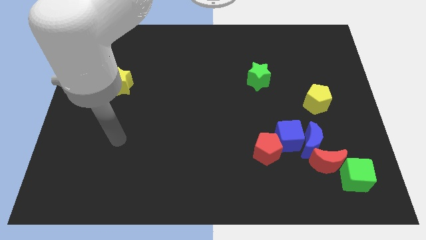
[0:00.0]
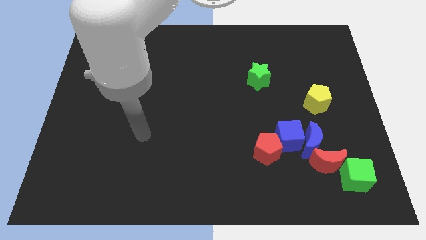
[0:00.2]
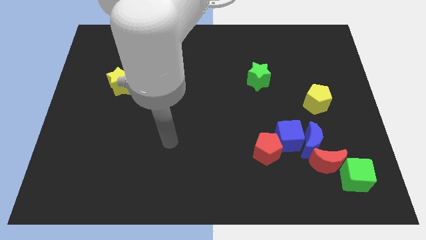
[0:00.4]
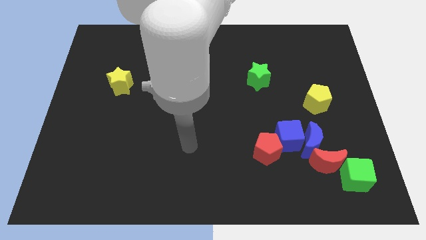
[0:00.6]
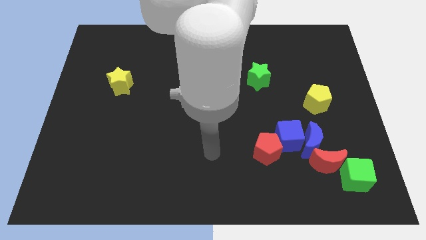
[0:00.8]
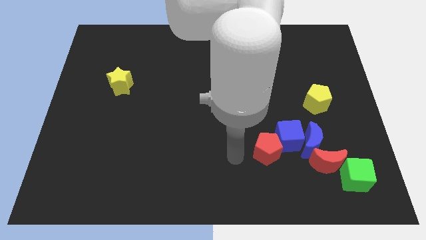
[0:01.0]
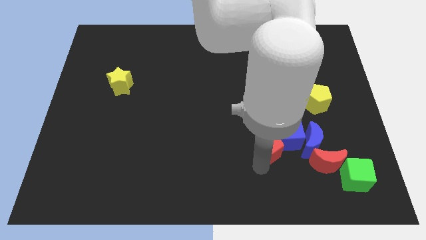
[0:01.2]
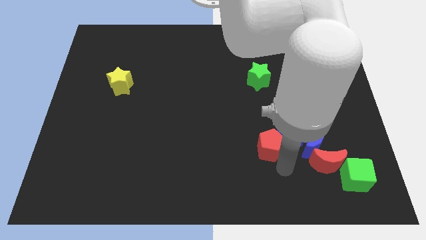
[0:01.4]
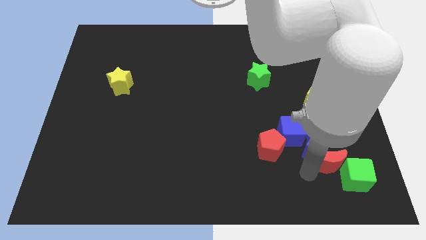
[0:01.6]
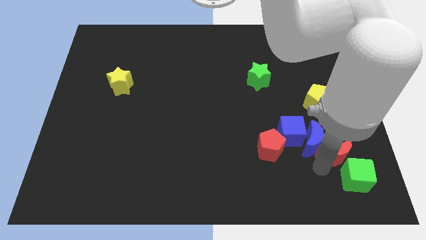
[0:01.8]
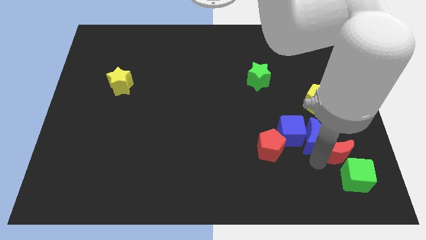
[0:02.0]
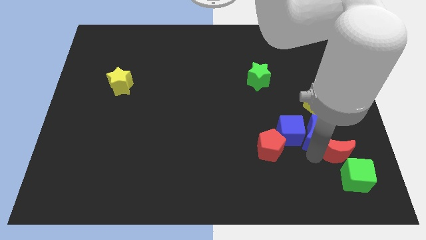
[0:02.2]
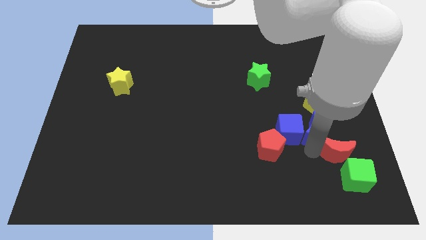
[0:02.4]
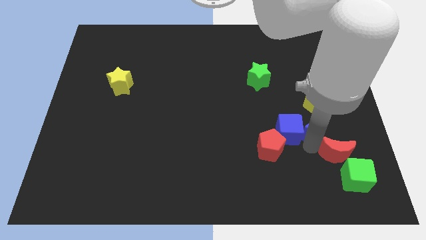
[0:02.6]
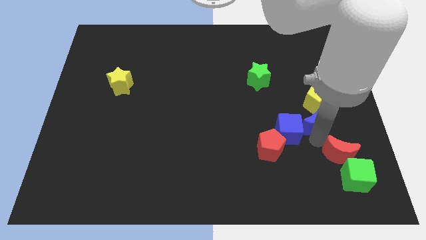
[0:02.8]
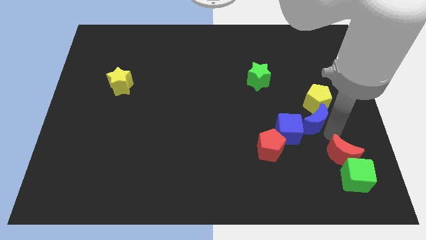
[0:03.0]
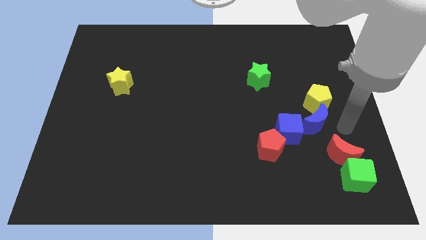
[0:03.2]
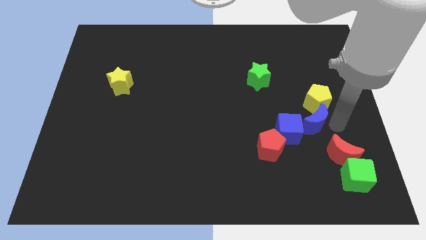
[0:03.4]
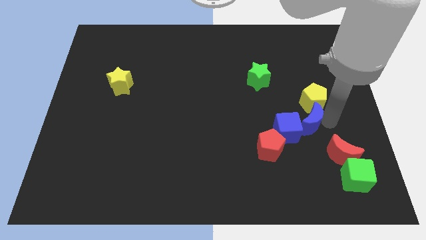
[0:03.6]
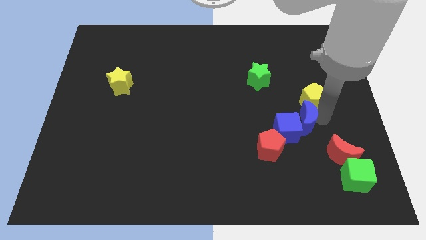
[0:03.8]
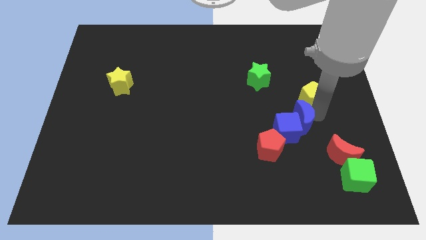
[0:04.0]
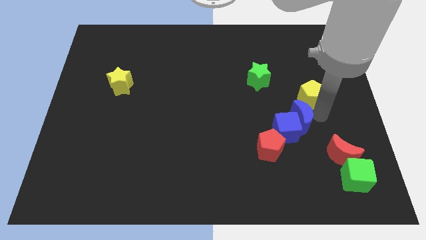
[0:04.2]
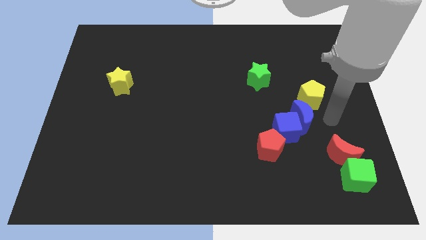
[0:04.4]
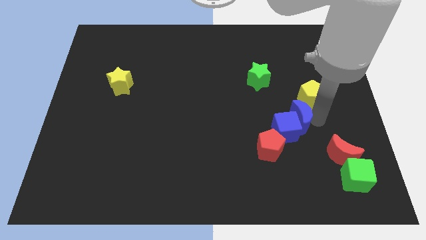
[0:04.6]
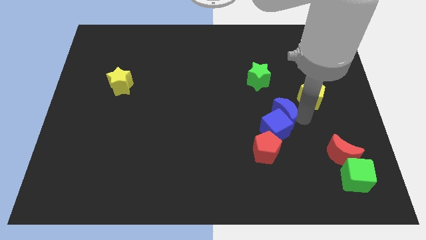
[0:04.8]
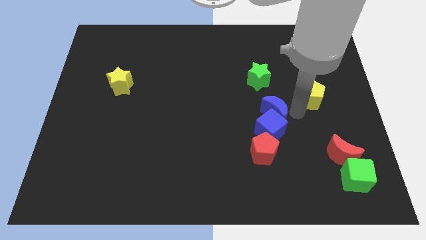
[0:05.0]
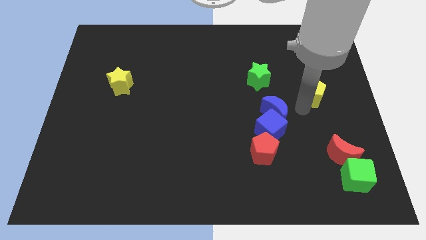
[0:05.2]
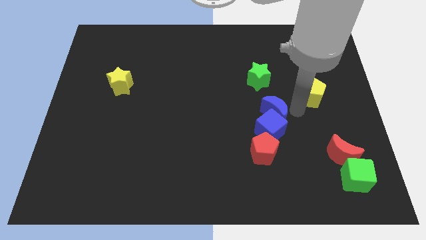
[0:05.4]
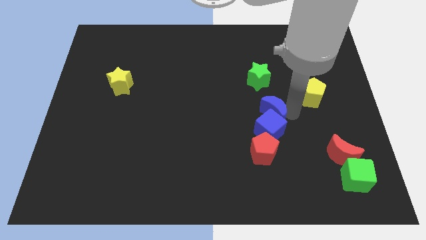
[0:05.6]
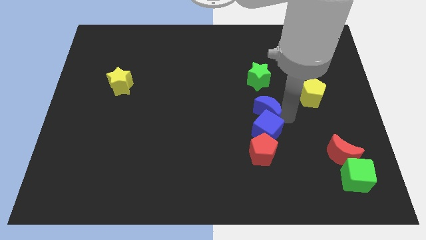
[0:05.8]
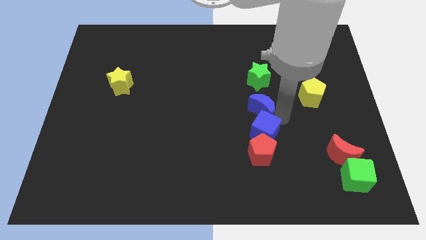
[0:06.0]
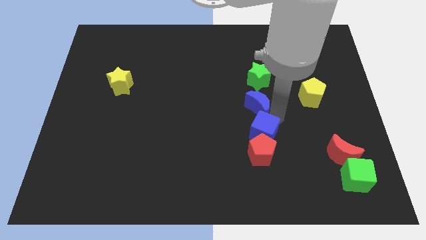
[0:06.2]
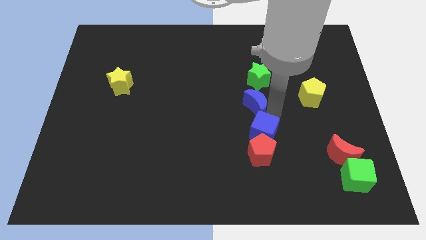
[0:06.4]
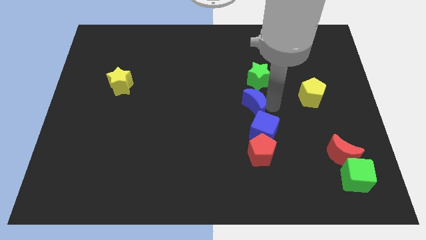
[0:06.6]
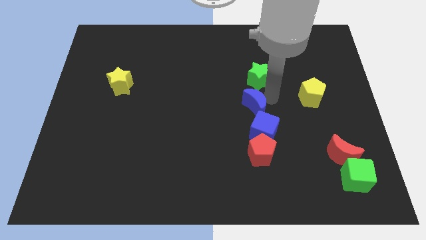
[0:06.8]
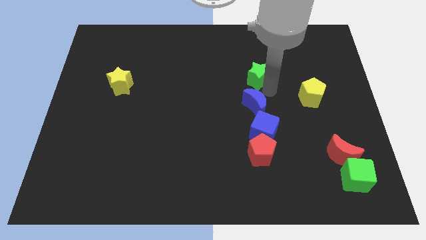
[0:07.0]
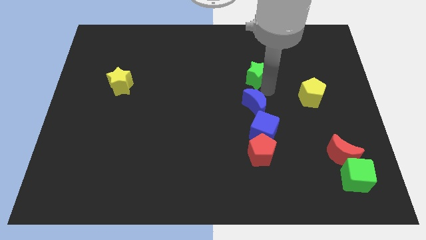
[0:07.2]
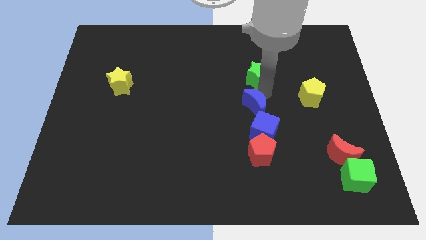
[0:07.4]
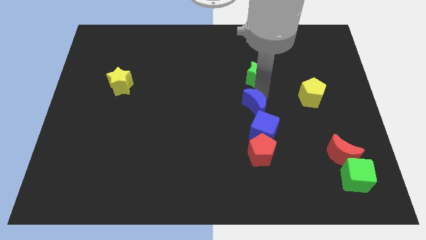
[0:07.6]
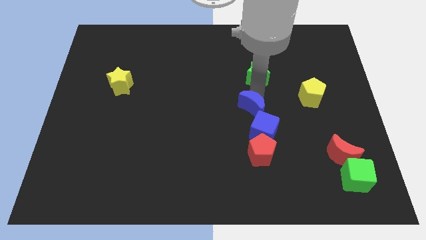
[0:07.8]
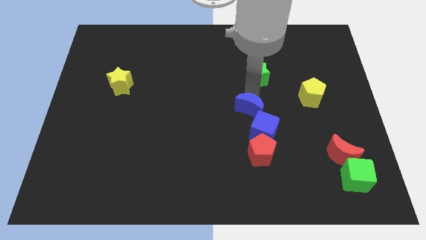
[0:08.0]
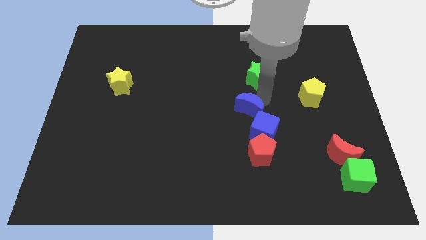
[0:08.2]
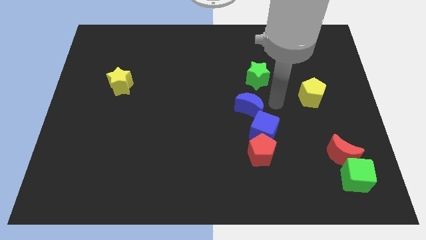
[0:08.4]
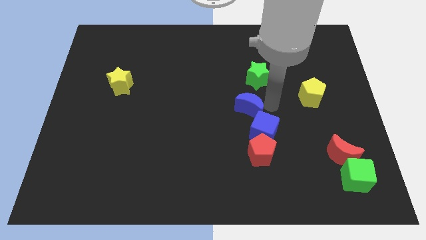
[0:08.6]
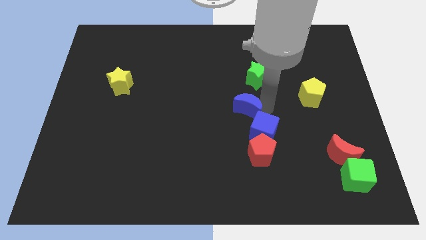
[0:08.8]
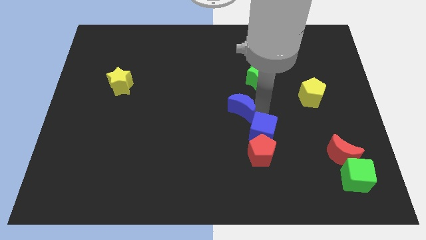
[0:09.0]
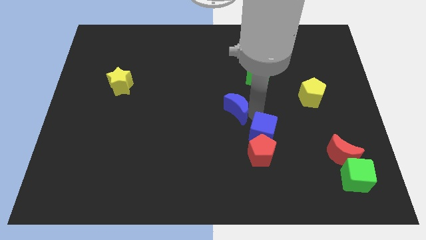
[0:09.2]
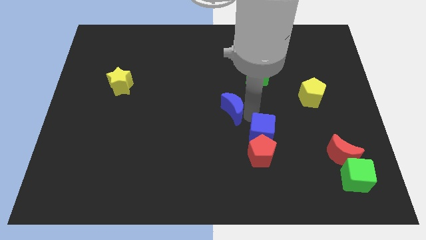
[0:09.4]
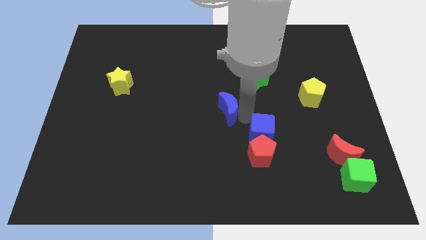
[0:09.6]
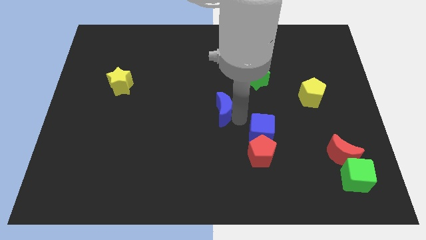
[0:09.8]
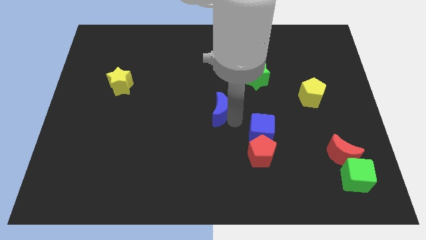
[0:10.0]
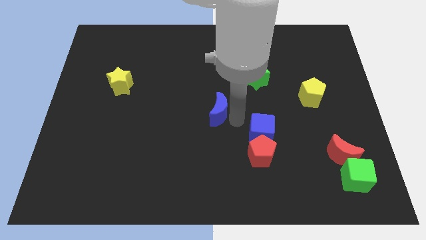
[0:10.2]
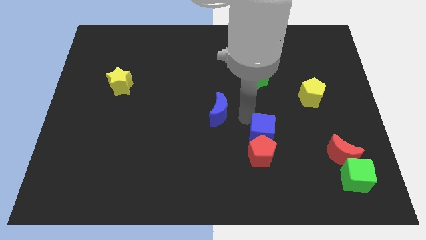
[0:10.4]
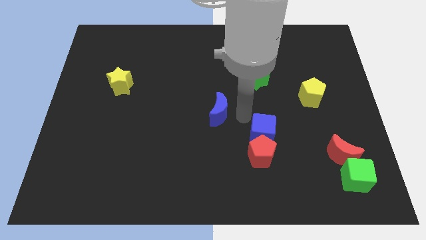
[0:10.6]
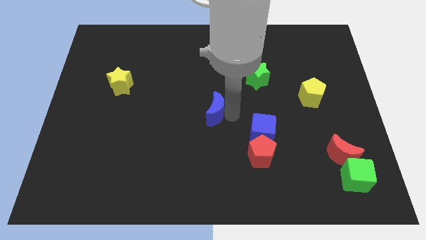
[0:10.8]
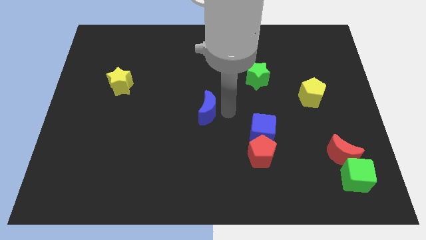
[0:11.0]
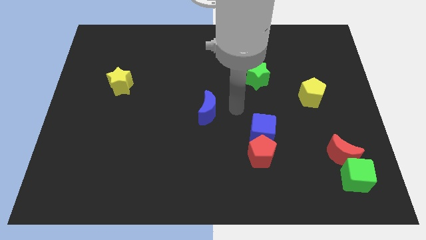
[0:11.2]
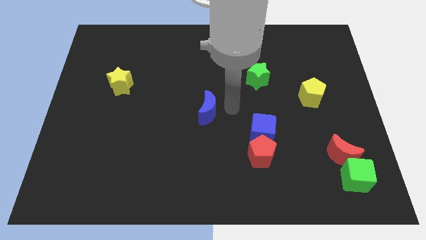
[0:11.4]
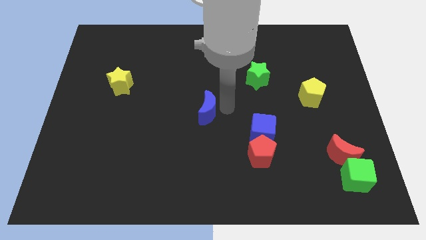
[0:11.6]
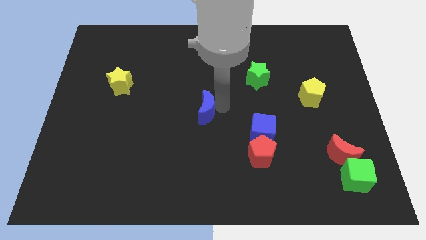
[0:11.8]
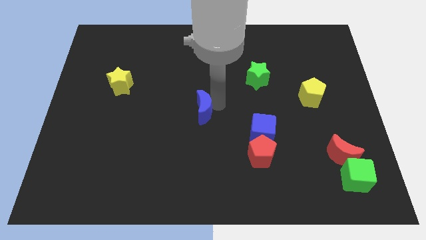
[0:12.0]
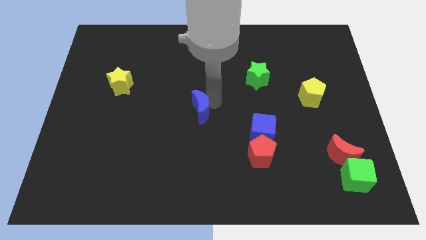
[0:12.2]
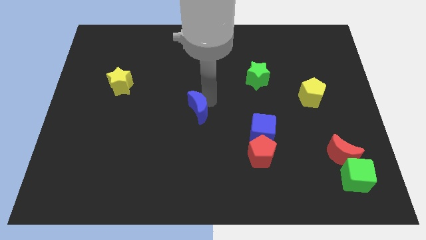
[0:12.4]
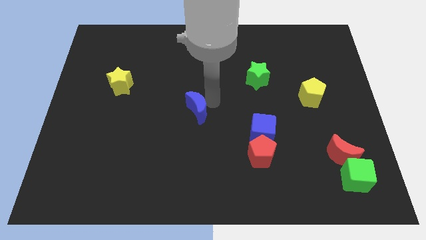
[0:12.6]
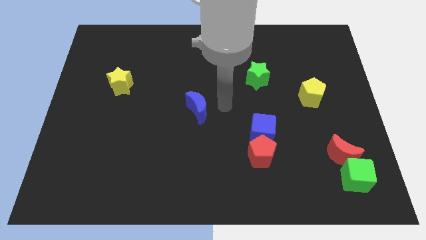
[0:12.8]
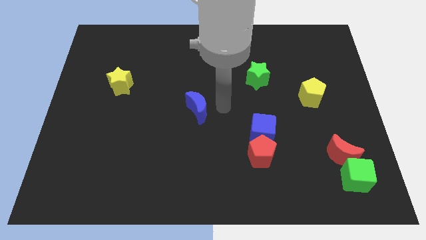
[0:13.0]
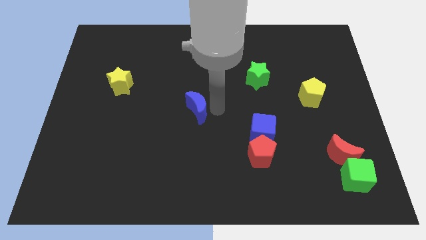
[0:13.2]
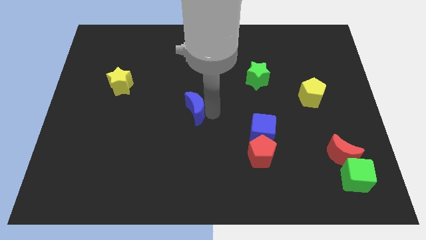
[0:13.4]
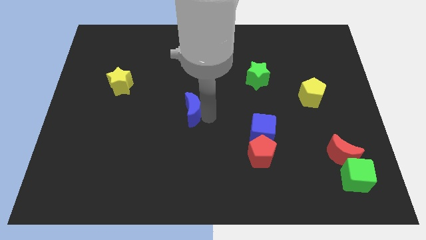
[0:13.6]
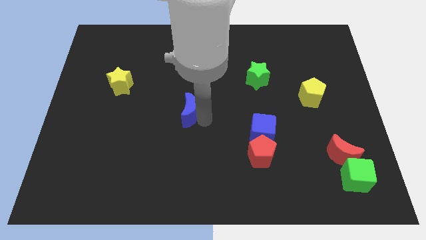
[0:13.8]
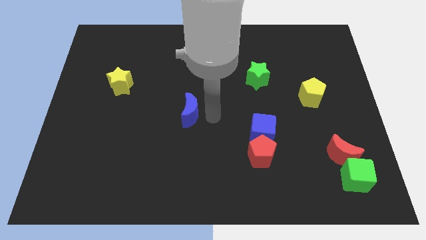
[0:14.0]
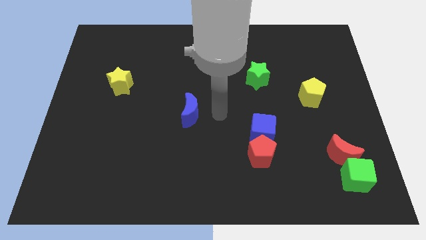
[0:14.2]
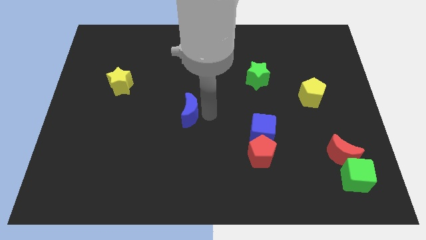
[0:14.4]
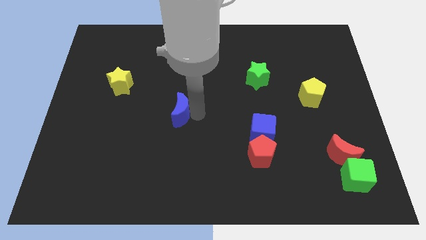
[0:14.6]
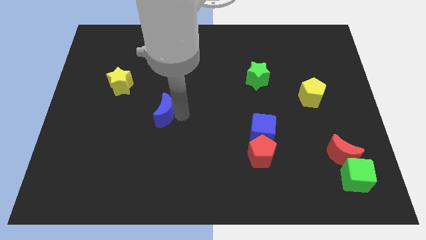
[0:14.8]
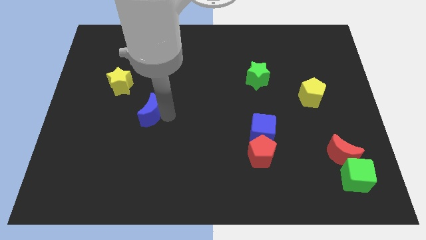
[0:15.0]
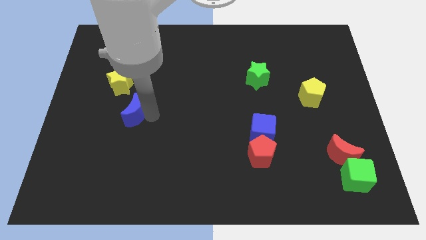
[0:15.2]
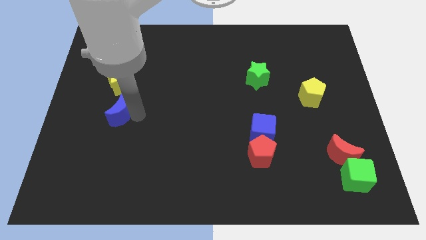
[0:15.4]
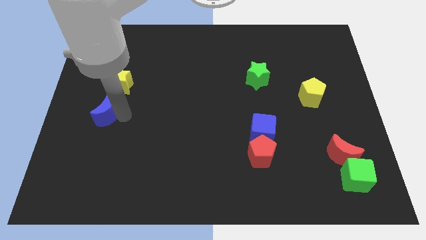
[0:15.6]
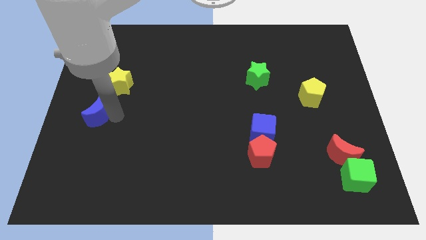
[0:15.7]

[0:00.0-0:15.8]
move the blue moon to the left side
